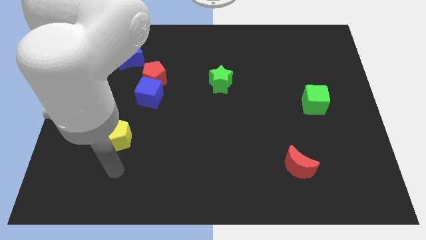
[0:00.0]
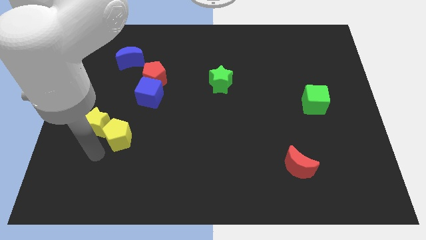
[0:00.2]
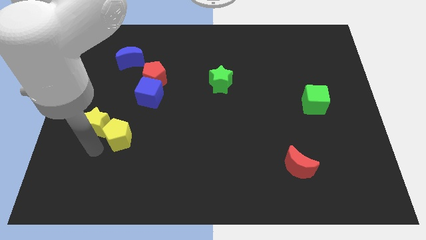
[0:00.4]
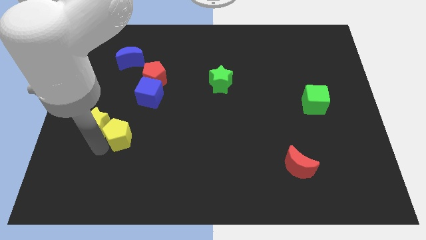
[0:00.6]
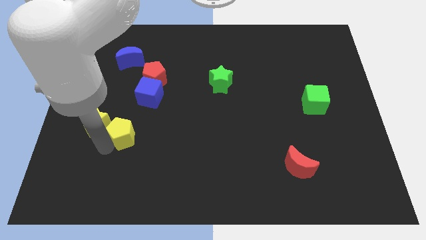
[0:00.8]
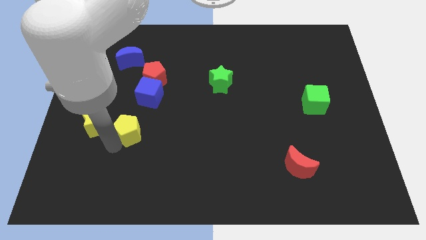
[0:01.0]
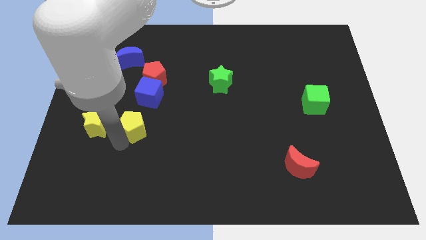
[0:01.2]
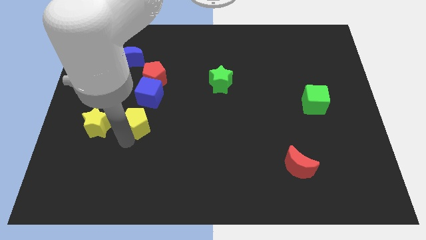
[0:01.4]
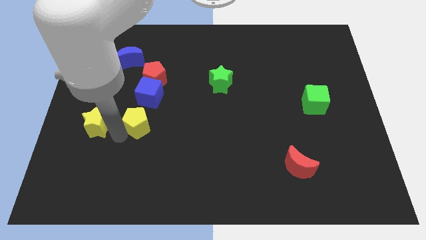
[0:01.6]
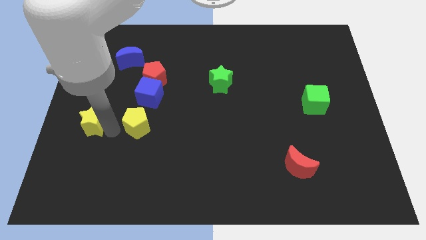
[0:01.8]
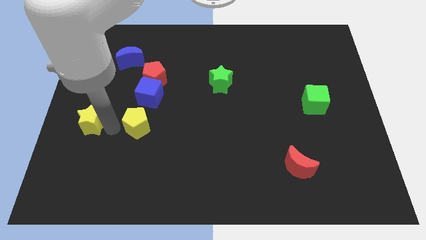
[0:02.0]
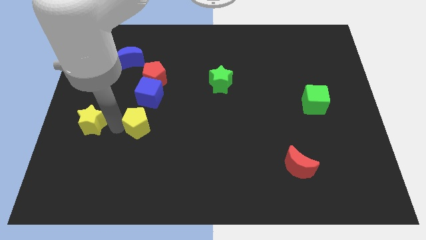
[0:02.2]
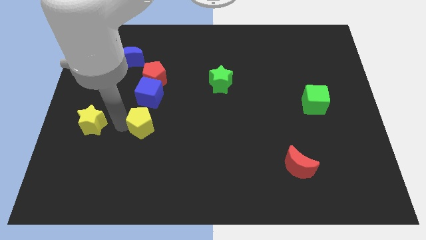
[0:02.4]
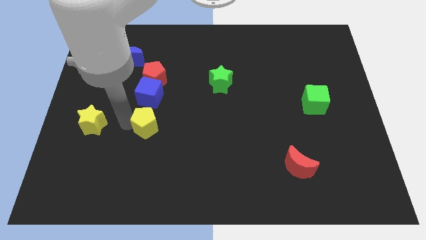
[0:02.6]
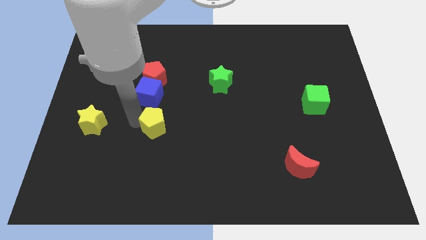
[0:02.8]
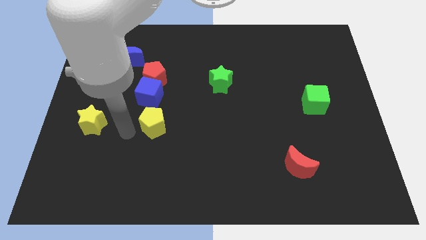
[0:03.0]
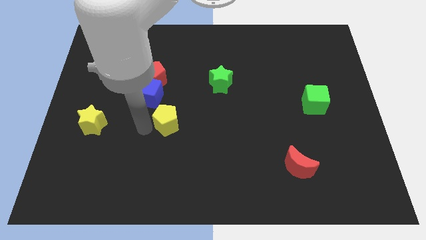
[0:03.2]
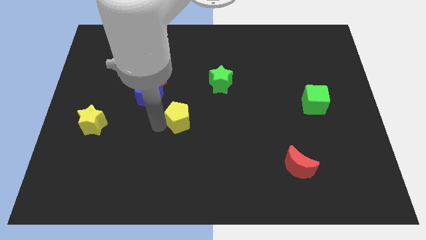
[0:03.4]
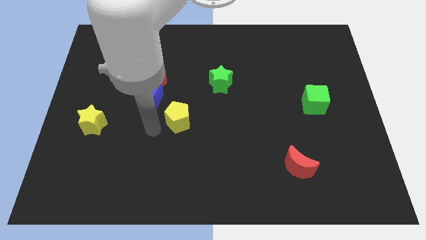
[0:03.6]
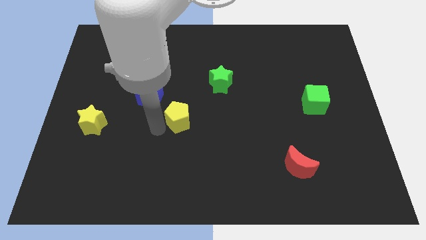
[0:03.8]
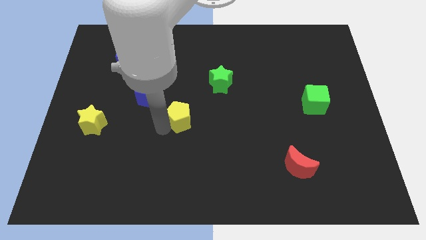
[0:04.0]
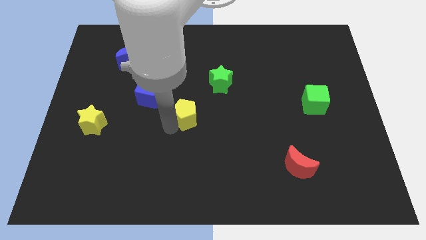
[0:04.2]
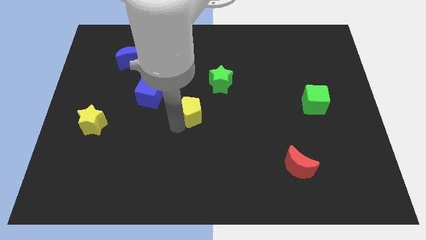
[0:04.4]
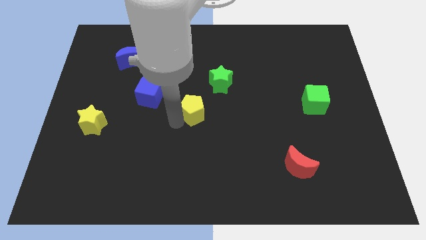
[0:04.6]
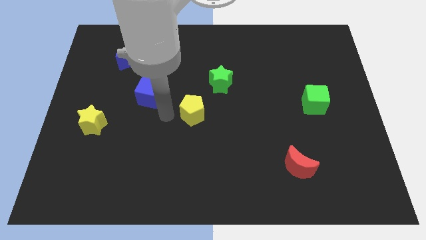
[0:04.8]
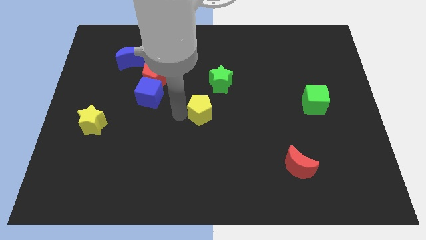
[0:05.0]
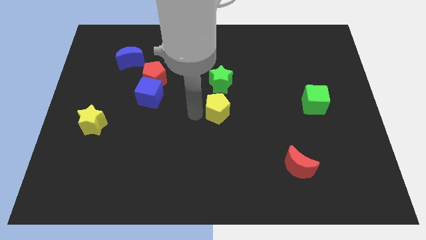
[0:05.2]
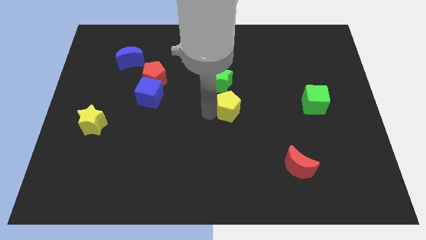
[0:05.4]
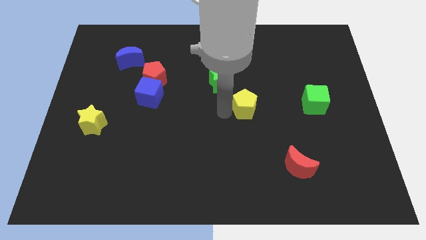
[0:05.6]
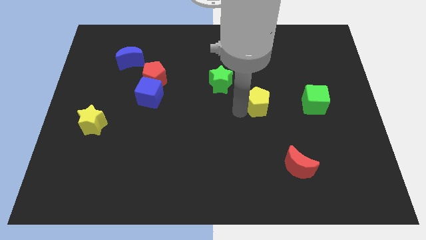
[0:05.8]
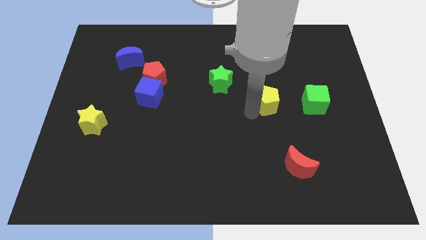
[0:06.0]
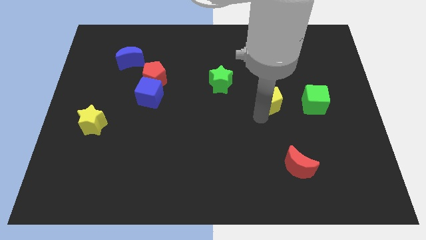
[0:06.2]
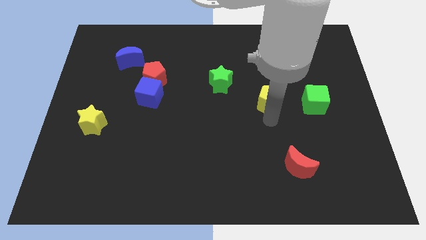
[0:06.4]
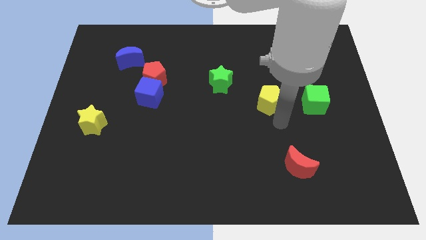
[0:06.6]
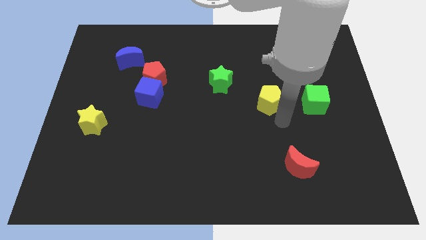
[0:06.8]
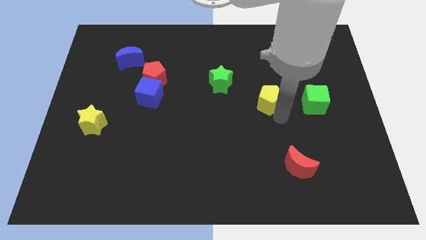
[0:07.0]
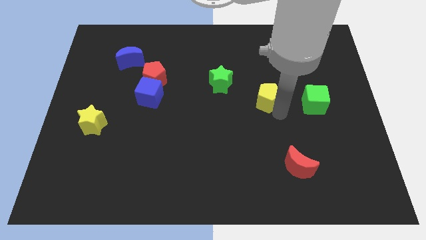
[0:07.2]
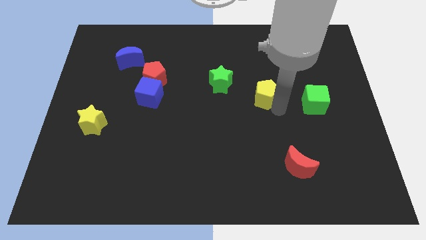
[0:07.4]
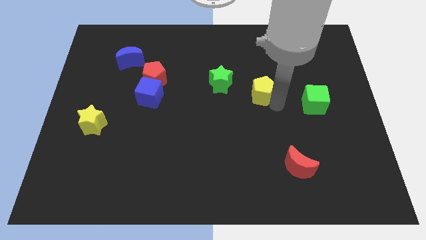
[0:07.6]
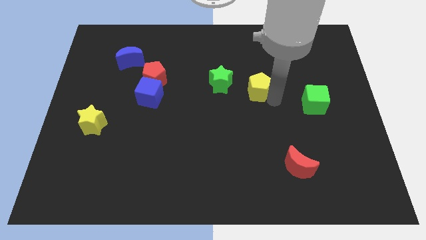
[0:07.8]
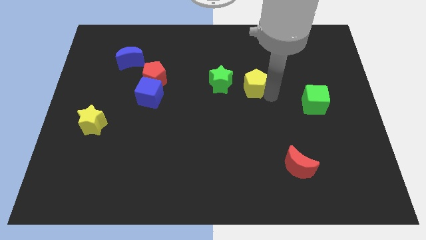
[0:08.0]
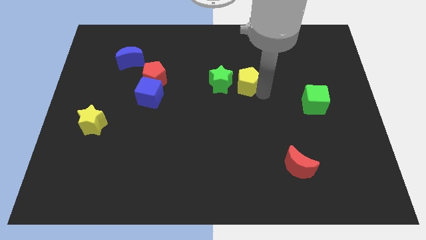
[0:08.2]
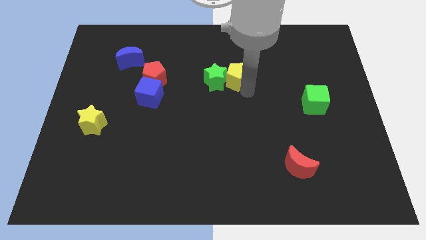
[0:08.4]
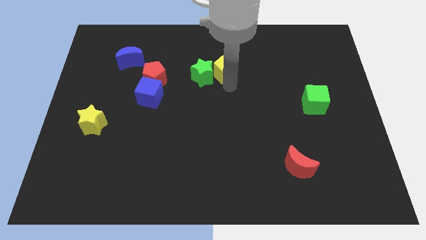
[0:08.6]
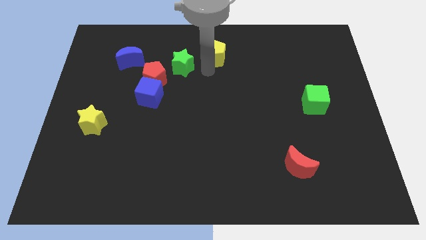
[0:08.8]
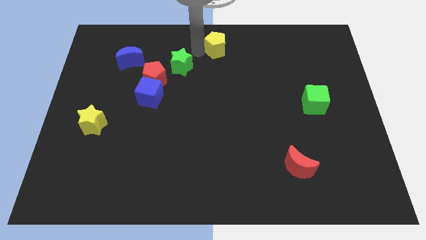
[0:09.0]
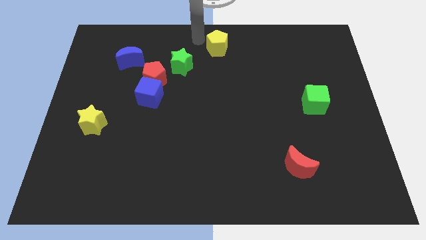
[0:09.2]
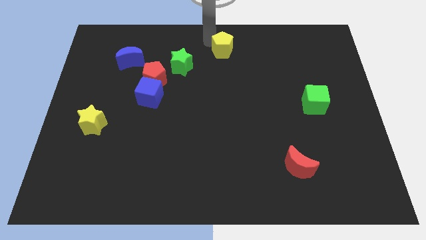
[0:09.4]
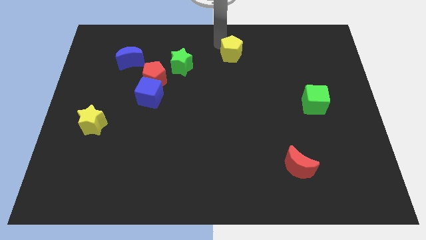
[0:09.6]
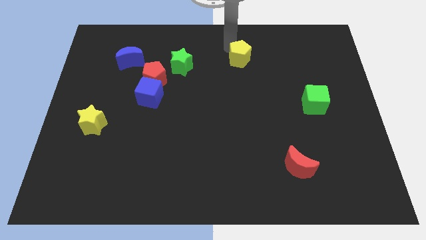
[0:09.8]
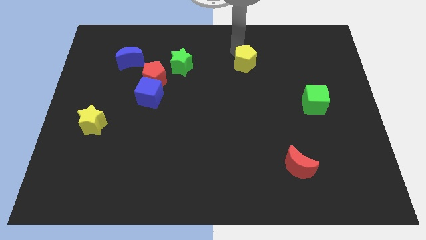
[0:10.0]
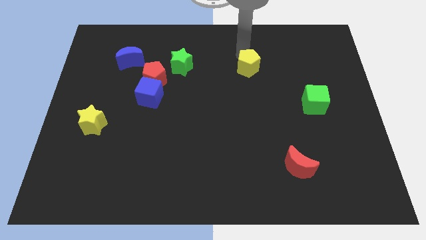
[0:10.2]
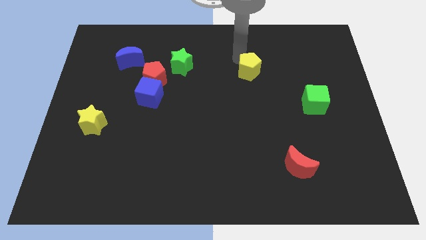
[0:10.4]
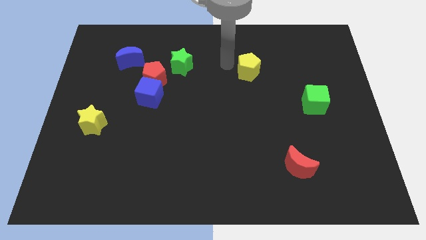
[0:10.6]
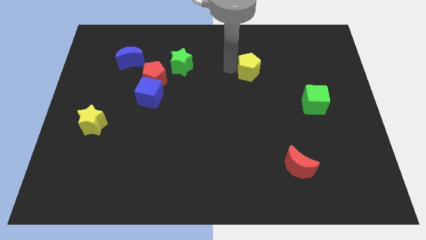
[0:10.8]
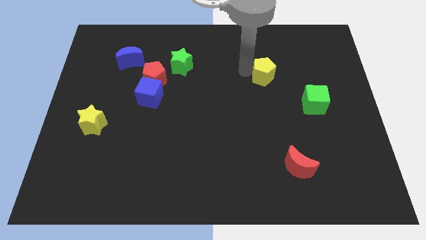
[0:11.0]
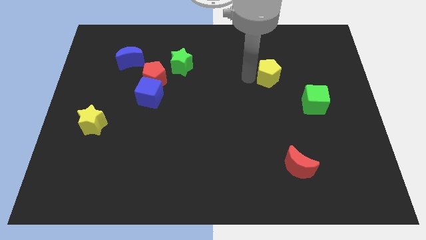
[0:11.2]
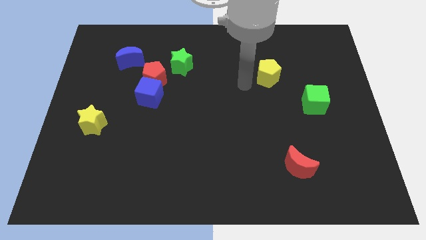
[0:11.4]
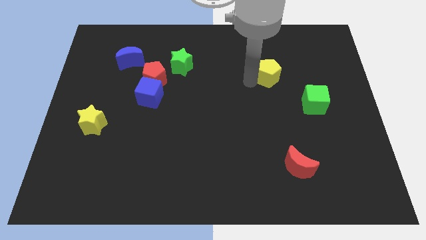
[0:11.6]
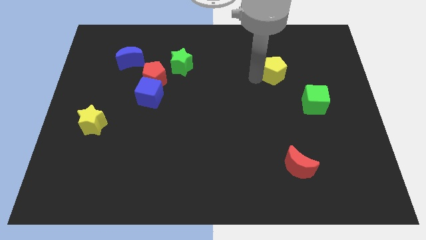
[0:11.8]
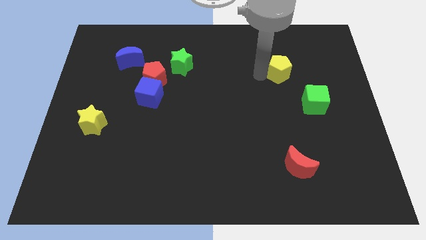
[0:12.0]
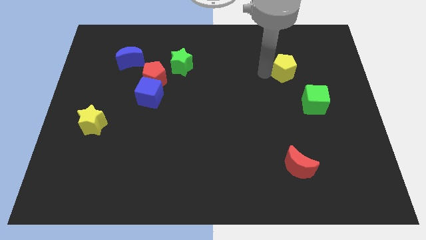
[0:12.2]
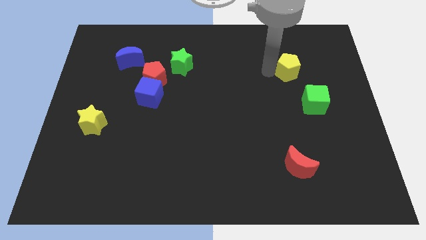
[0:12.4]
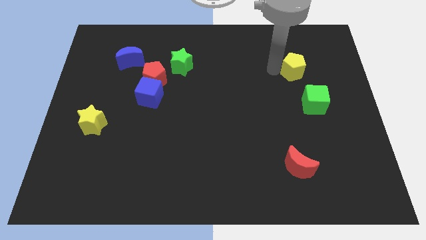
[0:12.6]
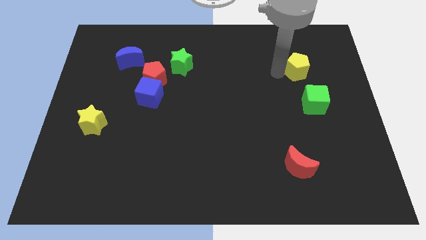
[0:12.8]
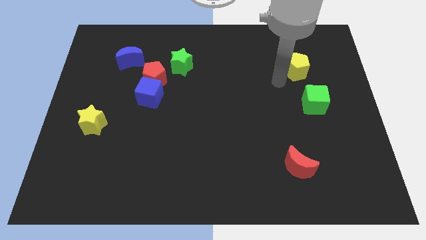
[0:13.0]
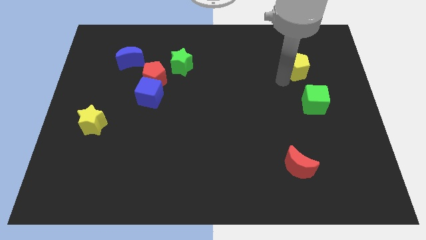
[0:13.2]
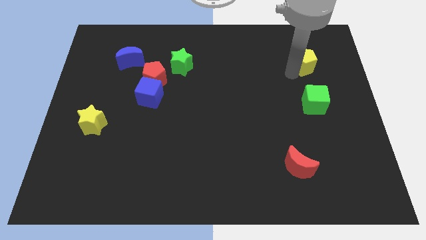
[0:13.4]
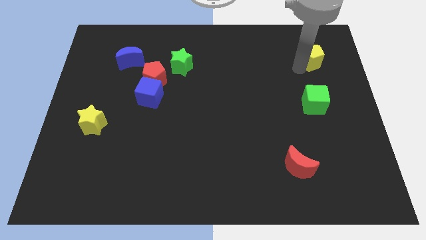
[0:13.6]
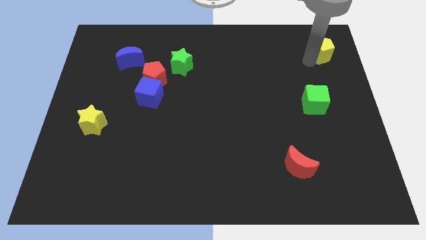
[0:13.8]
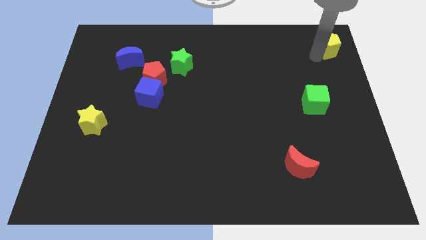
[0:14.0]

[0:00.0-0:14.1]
move the yellow pentagon to the top right of the board

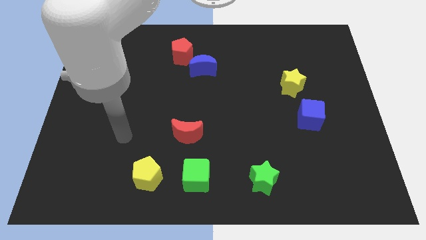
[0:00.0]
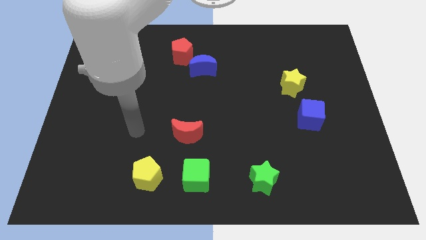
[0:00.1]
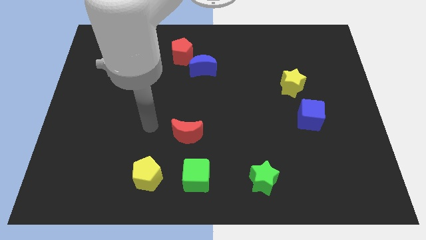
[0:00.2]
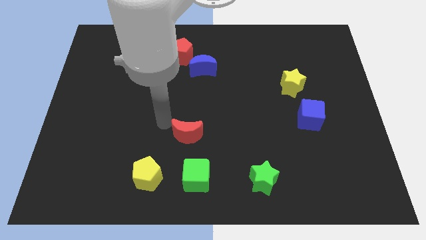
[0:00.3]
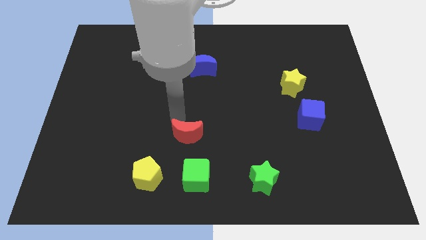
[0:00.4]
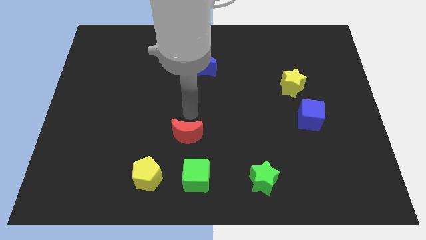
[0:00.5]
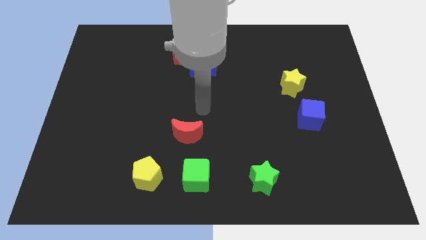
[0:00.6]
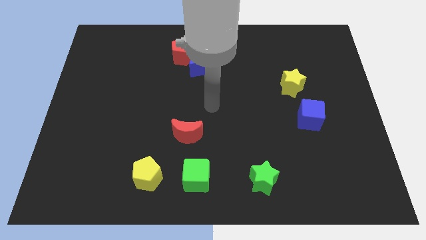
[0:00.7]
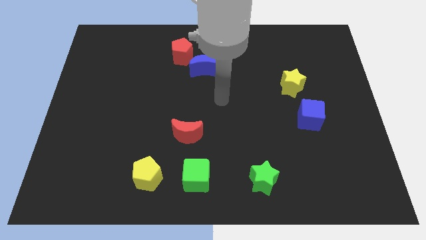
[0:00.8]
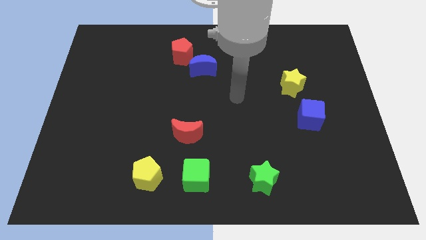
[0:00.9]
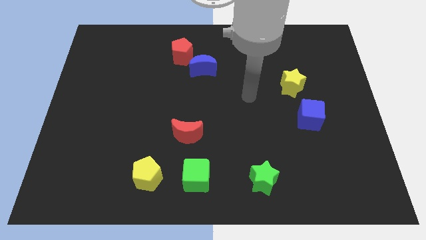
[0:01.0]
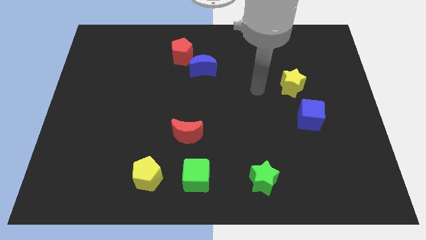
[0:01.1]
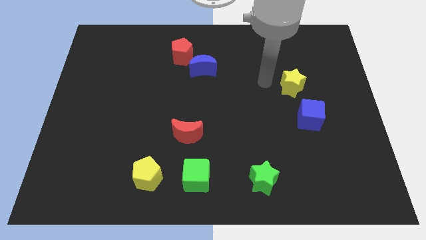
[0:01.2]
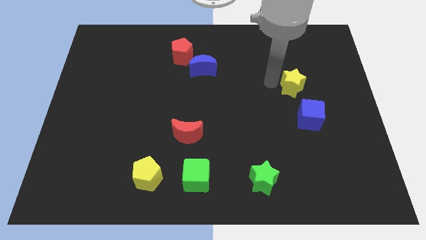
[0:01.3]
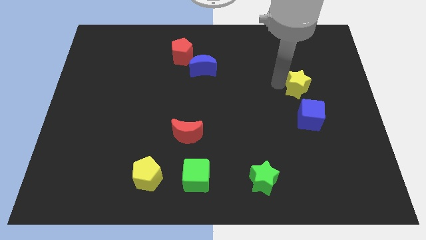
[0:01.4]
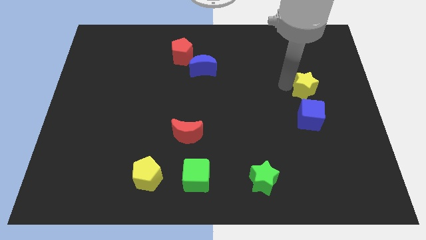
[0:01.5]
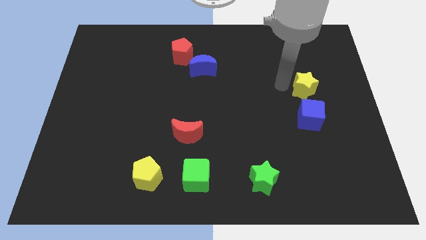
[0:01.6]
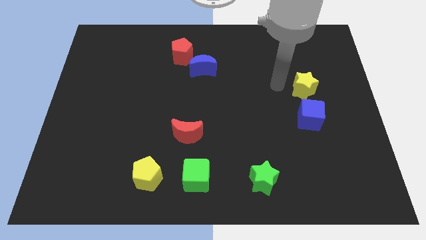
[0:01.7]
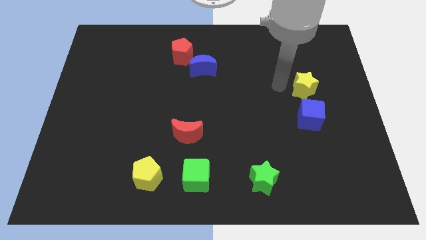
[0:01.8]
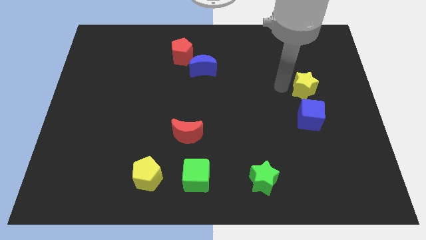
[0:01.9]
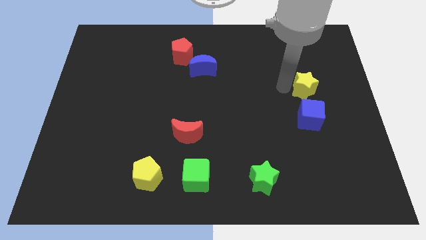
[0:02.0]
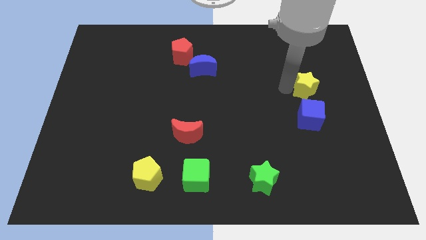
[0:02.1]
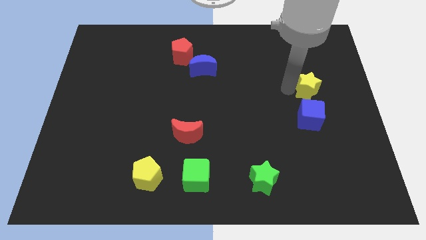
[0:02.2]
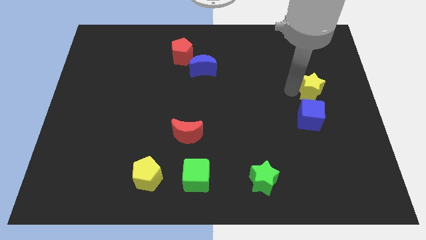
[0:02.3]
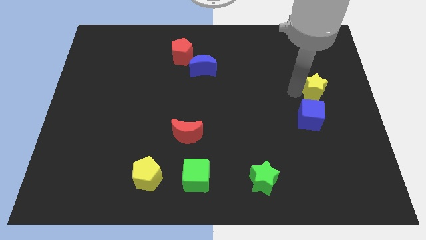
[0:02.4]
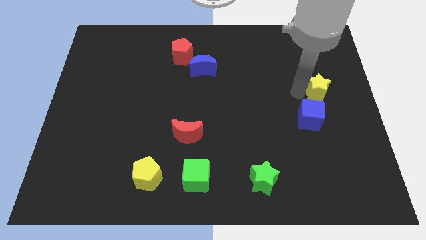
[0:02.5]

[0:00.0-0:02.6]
slide the yellow star to the right side
